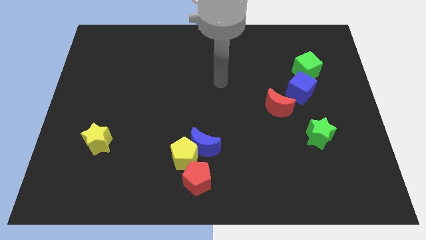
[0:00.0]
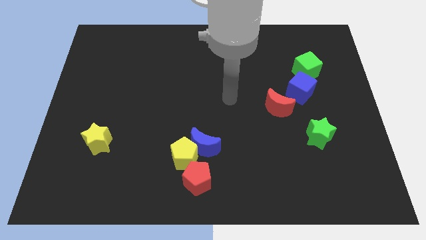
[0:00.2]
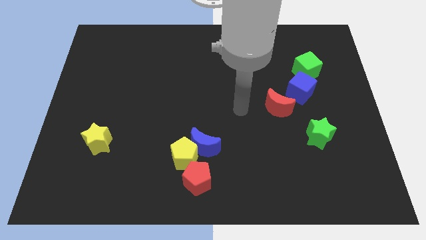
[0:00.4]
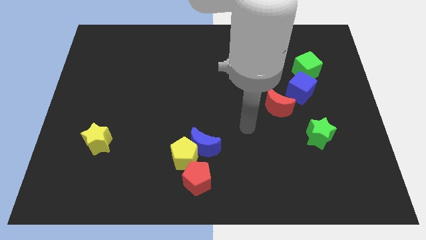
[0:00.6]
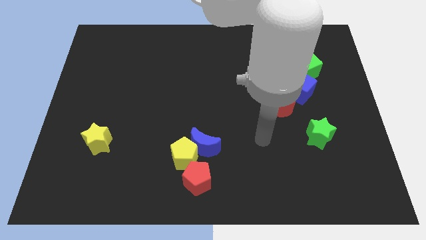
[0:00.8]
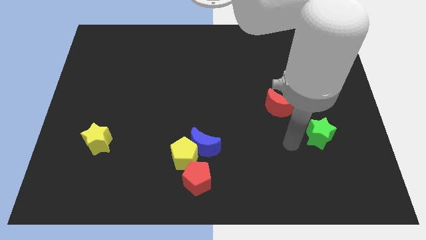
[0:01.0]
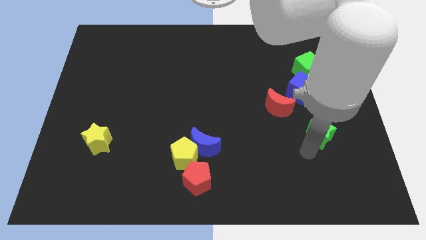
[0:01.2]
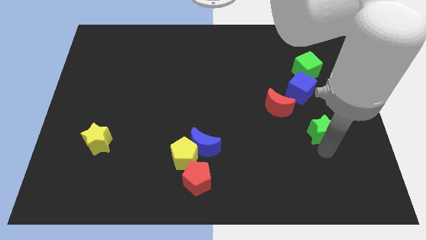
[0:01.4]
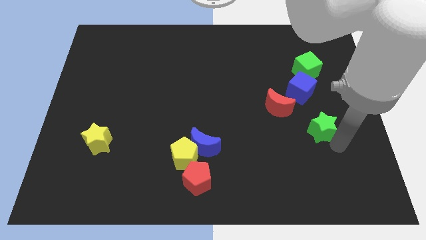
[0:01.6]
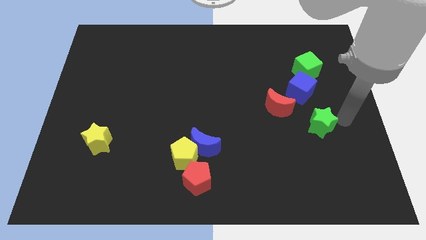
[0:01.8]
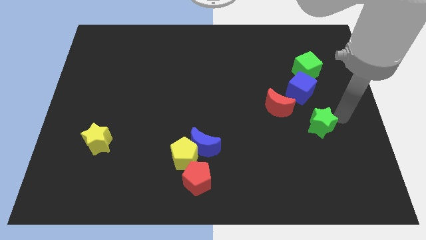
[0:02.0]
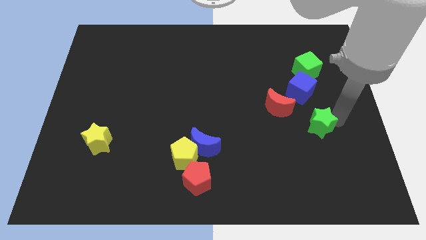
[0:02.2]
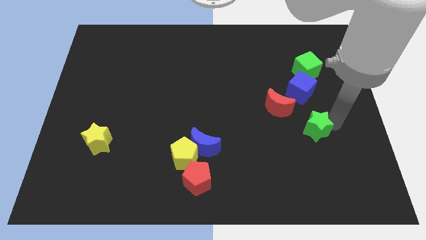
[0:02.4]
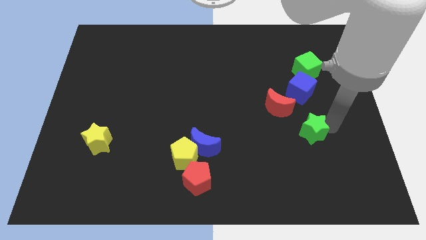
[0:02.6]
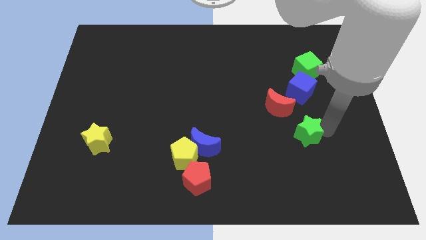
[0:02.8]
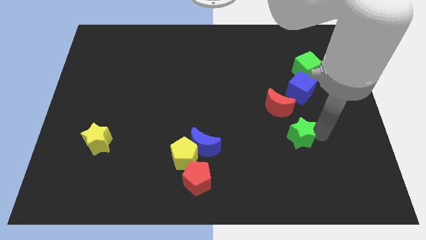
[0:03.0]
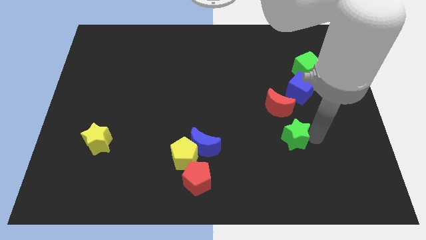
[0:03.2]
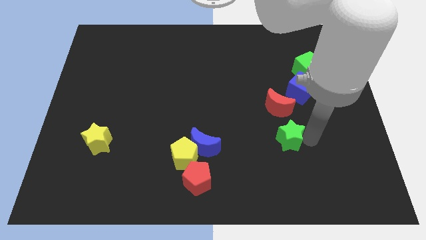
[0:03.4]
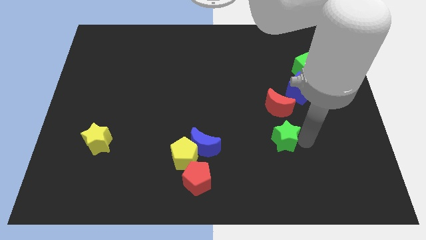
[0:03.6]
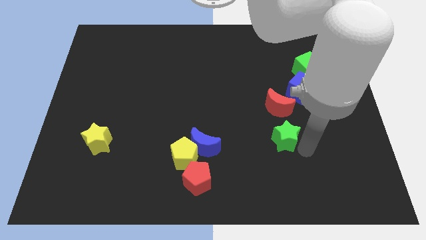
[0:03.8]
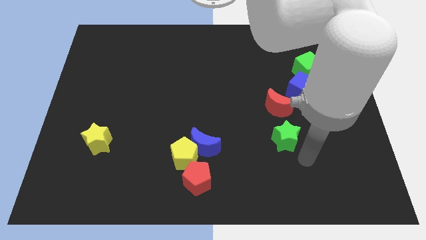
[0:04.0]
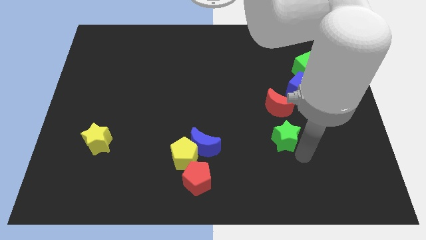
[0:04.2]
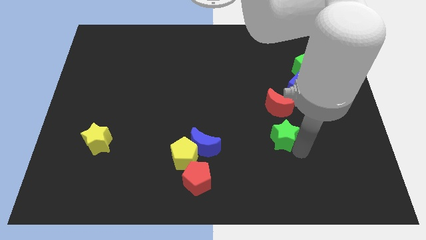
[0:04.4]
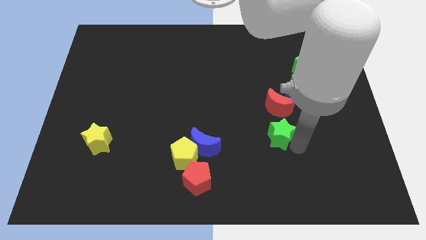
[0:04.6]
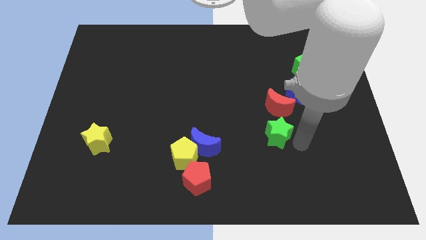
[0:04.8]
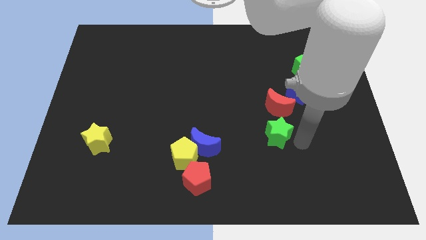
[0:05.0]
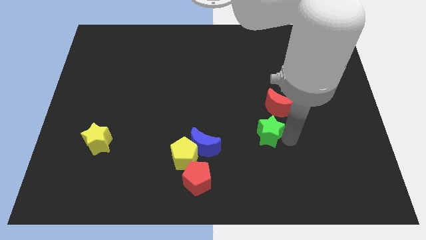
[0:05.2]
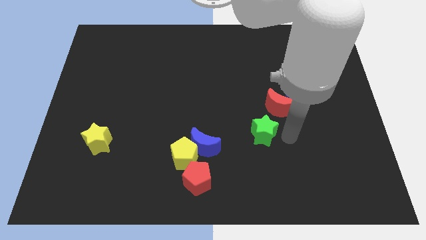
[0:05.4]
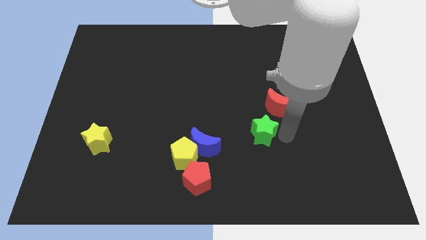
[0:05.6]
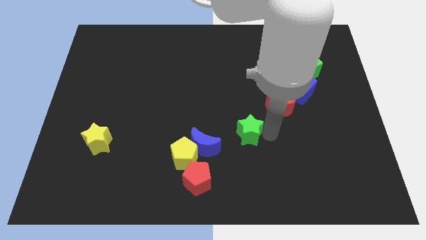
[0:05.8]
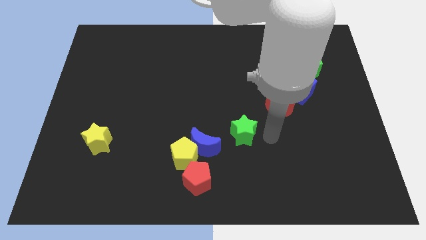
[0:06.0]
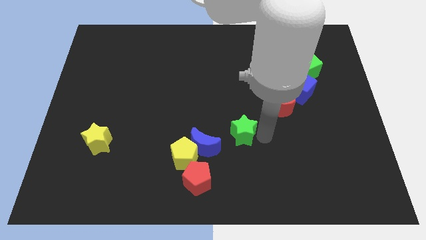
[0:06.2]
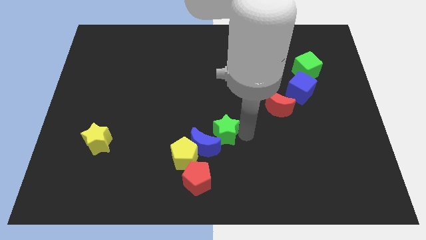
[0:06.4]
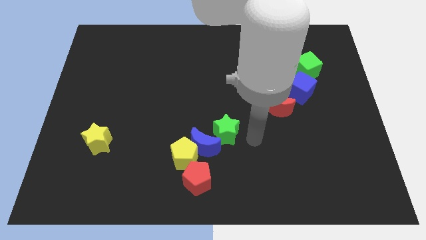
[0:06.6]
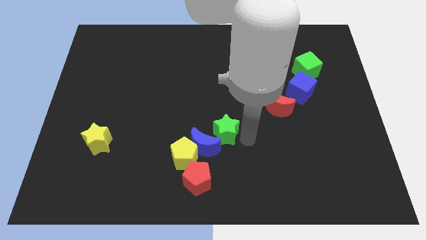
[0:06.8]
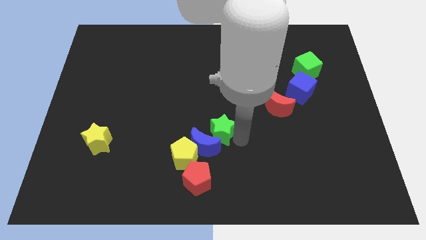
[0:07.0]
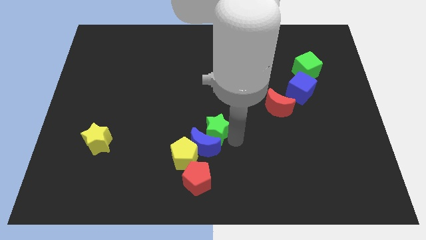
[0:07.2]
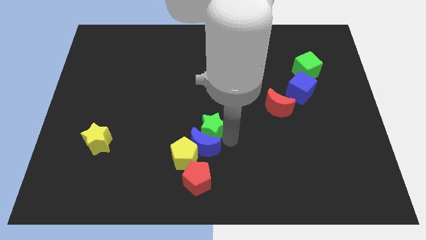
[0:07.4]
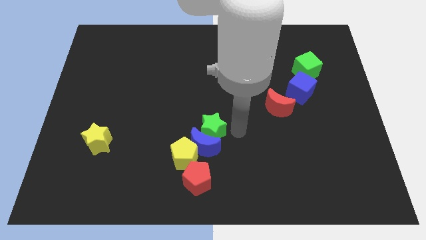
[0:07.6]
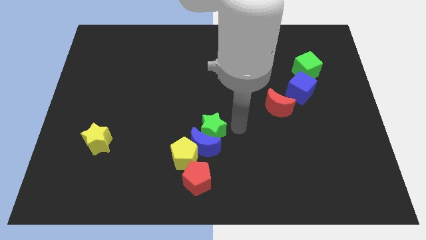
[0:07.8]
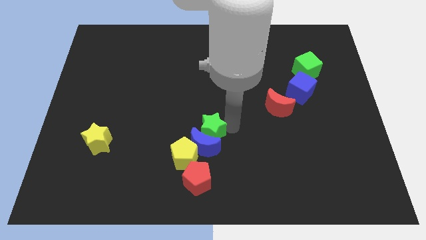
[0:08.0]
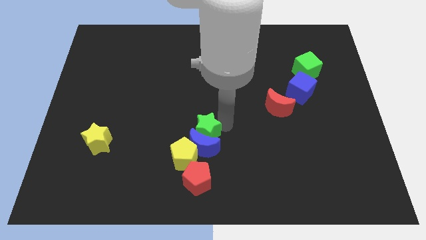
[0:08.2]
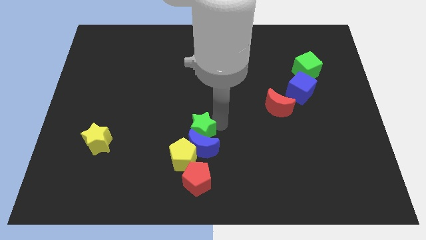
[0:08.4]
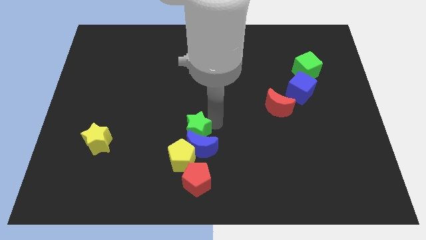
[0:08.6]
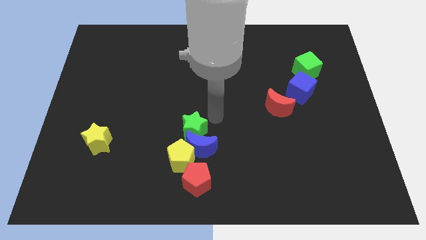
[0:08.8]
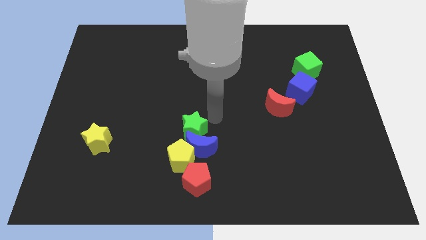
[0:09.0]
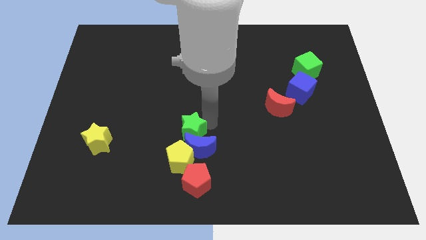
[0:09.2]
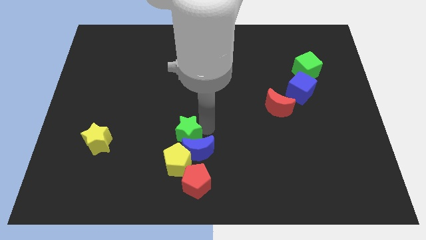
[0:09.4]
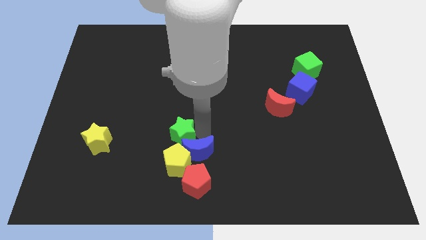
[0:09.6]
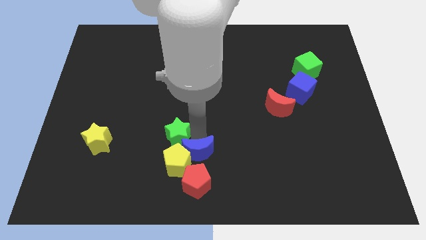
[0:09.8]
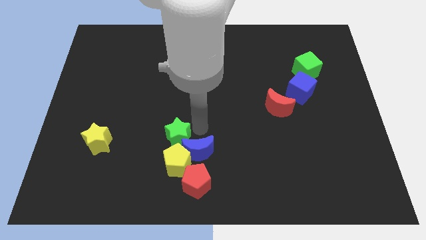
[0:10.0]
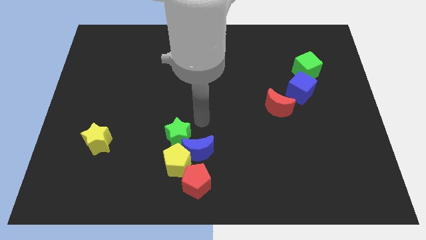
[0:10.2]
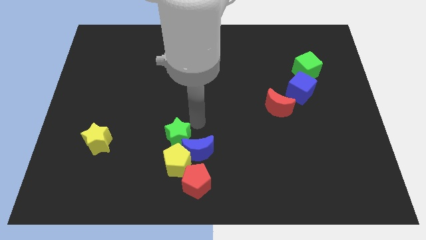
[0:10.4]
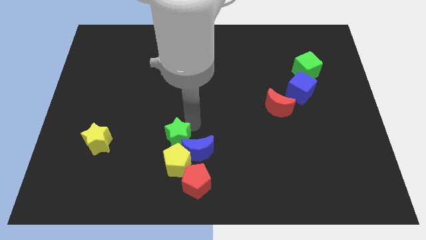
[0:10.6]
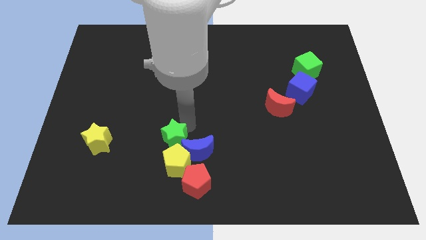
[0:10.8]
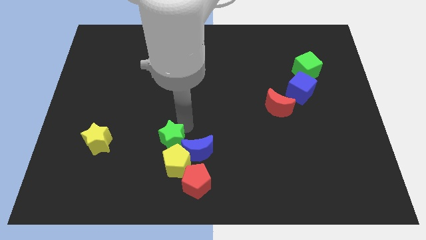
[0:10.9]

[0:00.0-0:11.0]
push the green star to the top left side of the red pentagon

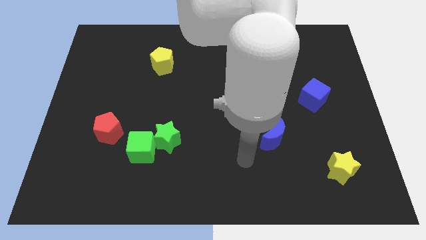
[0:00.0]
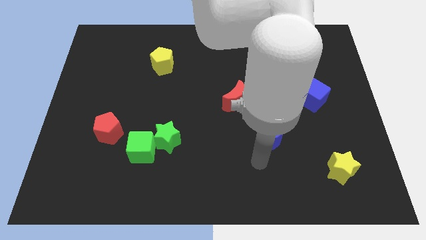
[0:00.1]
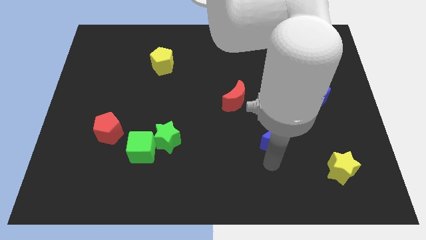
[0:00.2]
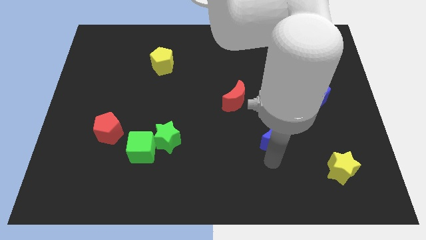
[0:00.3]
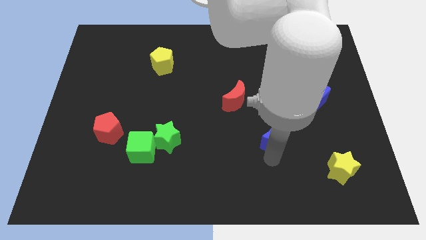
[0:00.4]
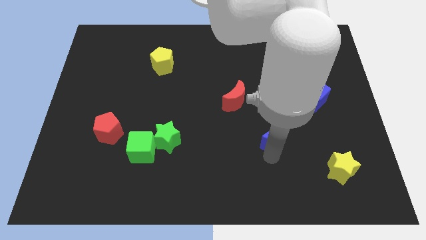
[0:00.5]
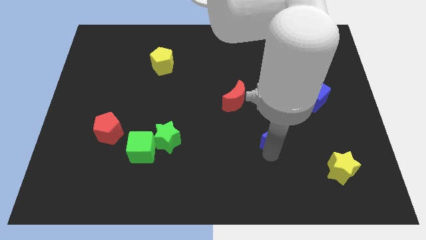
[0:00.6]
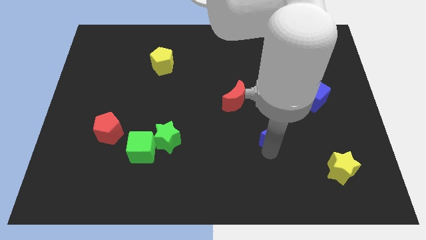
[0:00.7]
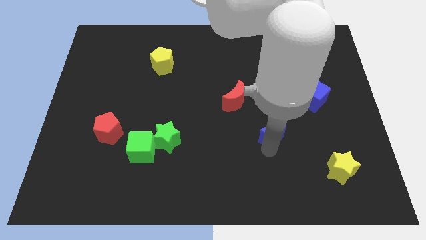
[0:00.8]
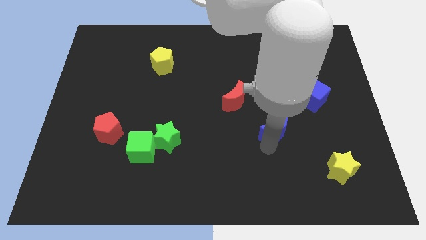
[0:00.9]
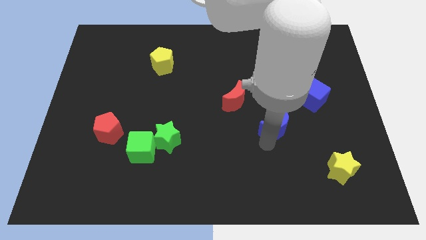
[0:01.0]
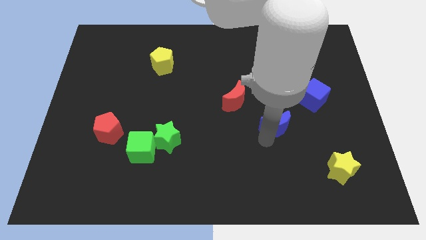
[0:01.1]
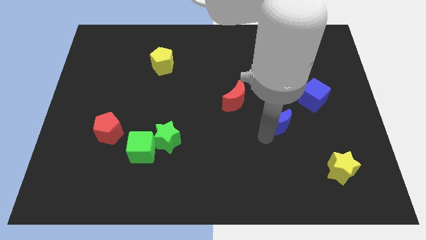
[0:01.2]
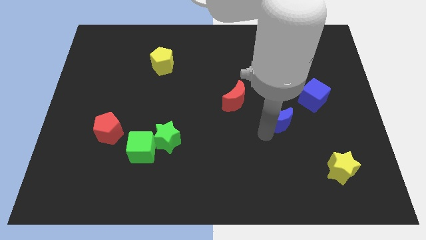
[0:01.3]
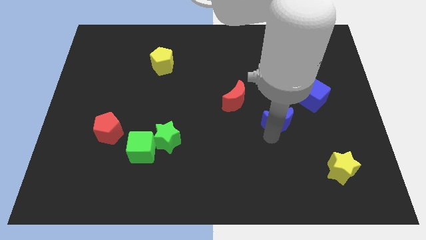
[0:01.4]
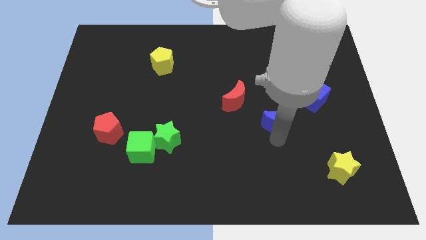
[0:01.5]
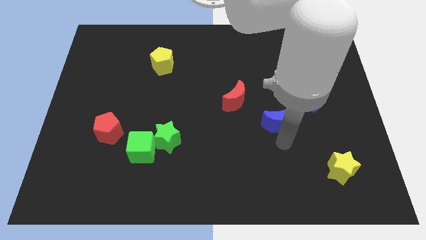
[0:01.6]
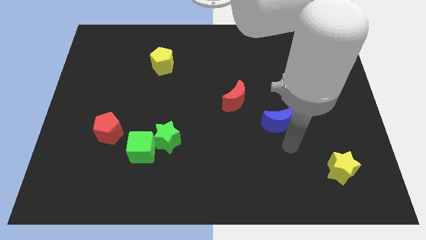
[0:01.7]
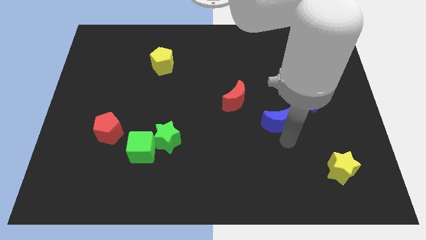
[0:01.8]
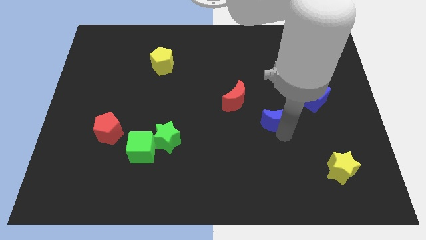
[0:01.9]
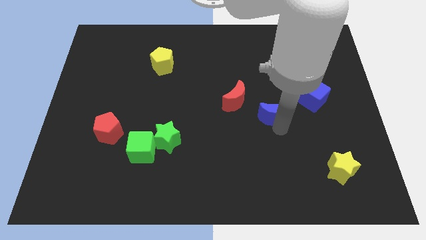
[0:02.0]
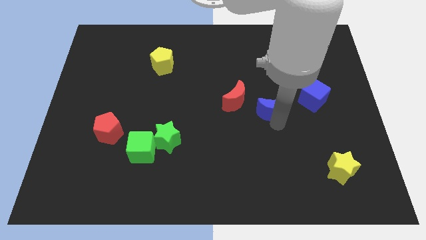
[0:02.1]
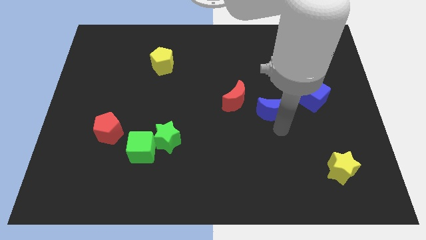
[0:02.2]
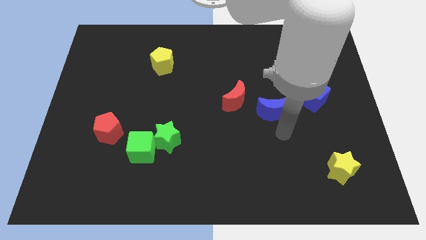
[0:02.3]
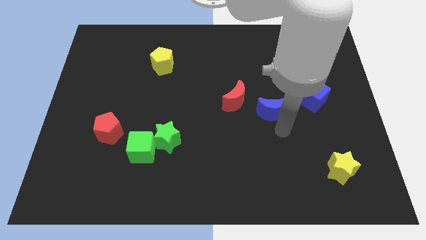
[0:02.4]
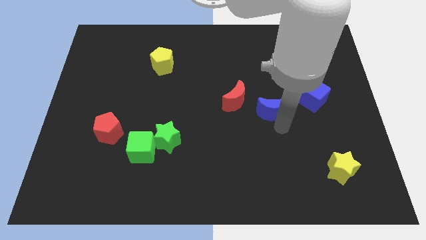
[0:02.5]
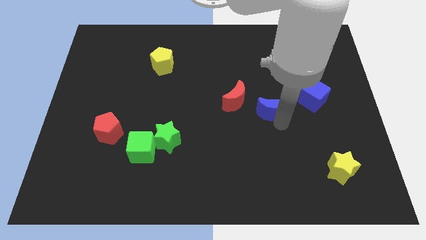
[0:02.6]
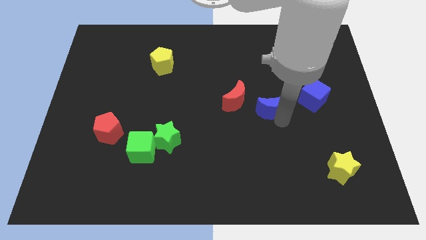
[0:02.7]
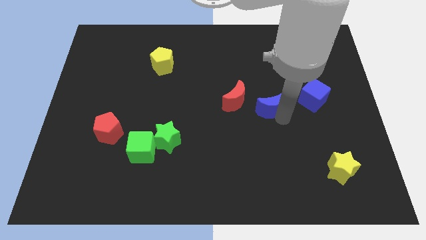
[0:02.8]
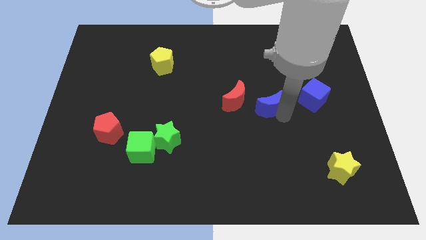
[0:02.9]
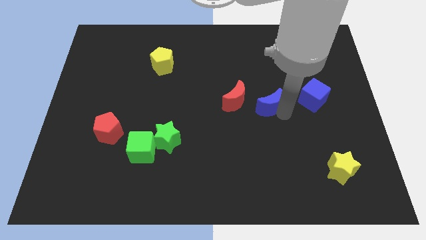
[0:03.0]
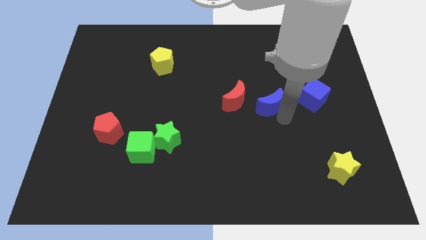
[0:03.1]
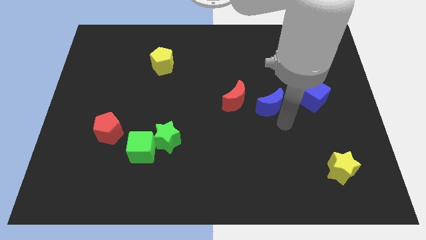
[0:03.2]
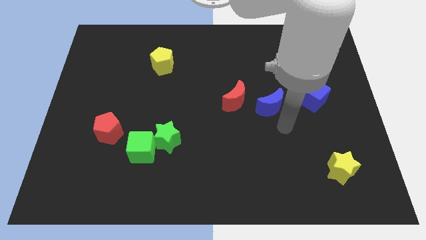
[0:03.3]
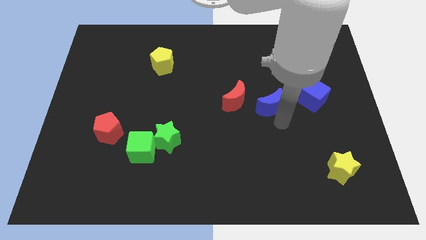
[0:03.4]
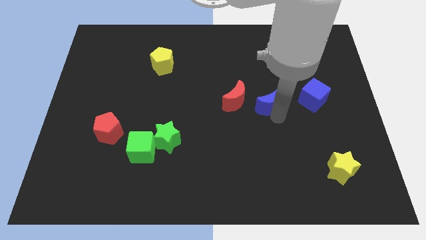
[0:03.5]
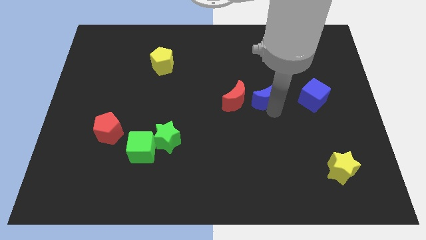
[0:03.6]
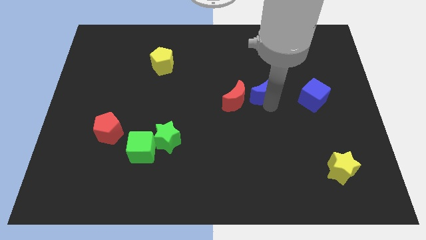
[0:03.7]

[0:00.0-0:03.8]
push the blue moon to the top right side of the red moon
